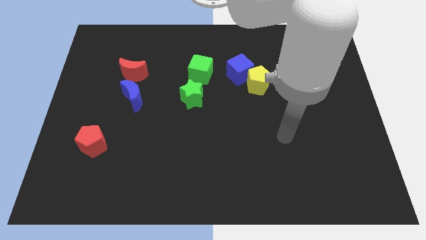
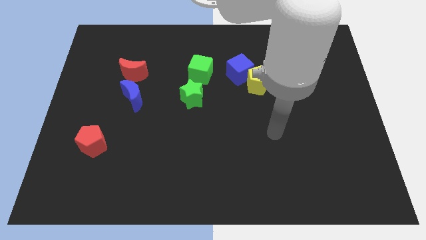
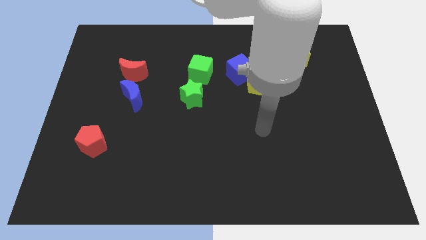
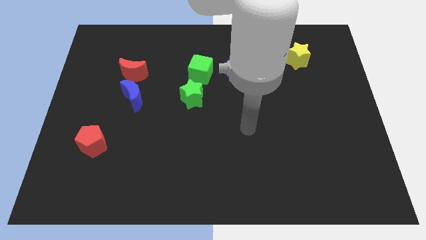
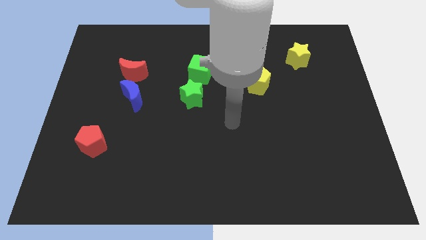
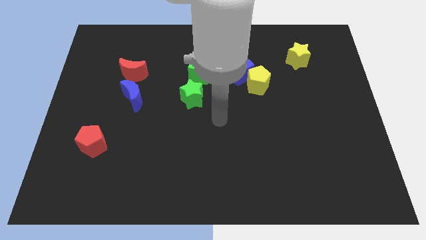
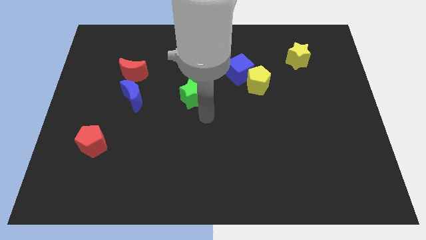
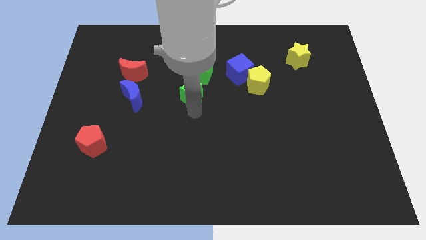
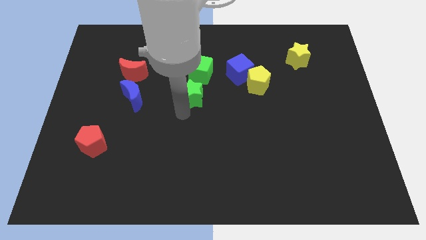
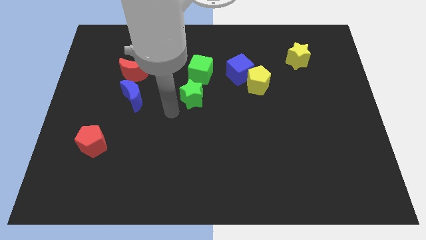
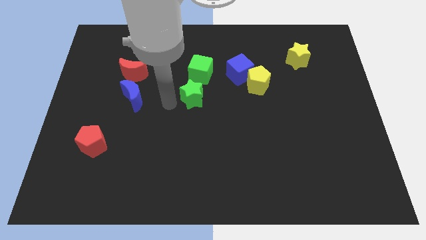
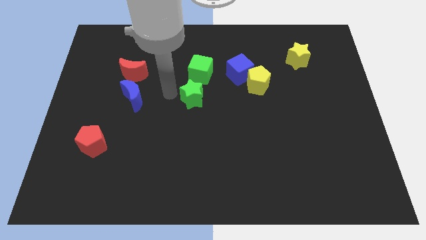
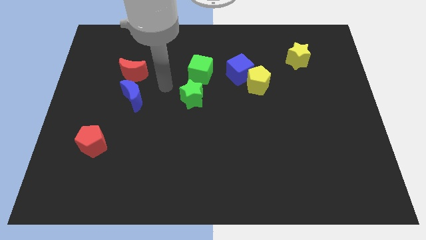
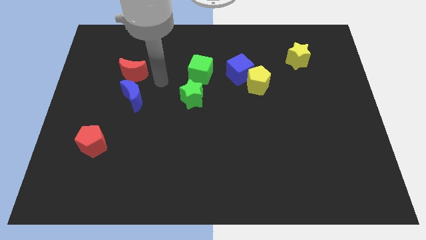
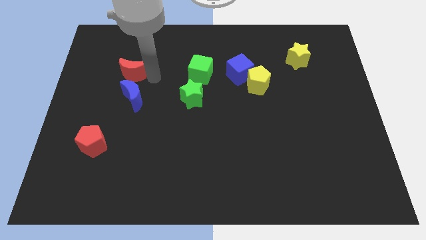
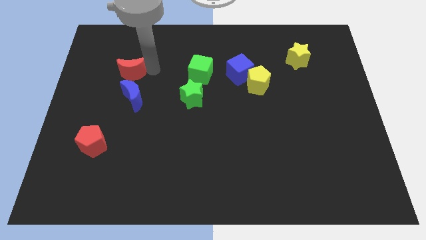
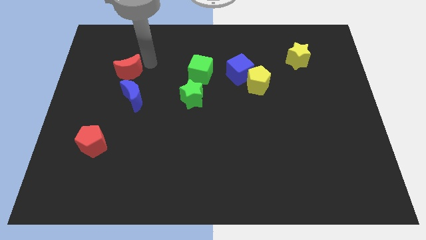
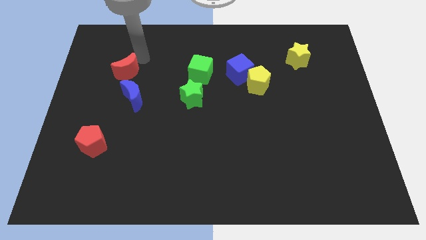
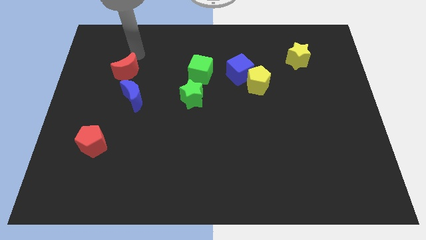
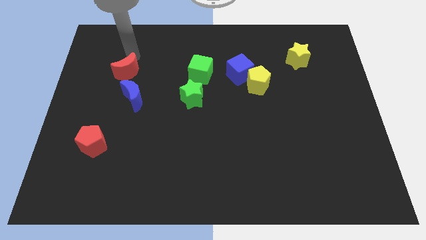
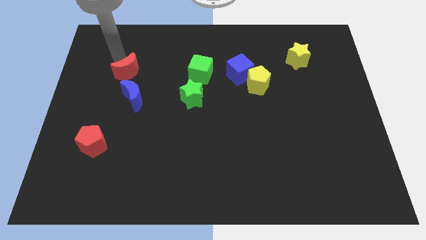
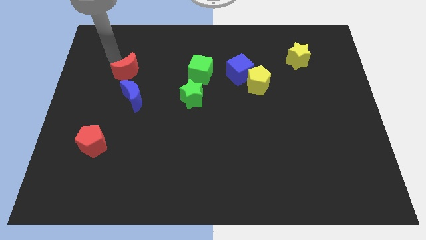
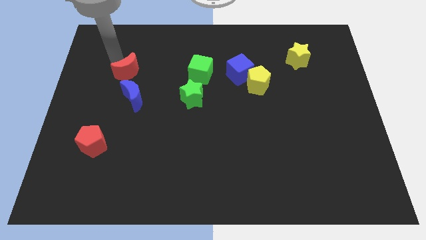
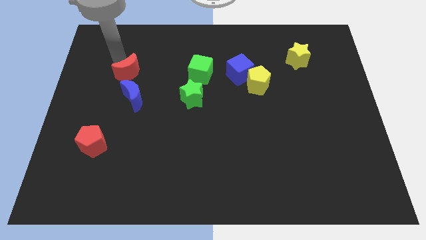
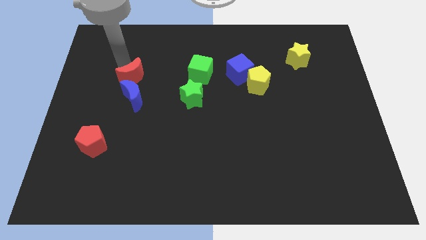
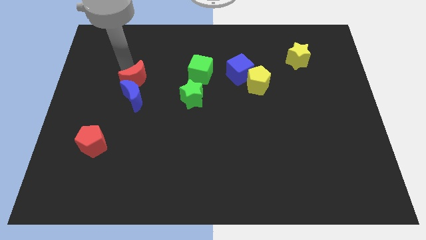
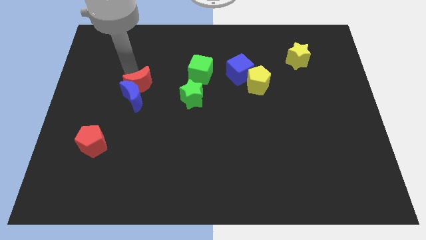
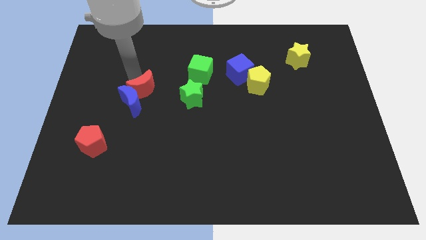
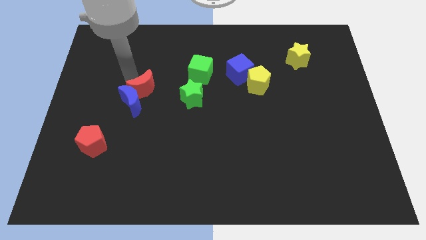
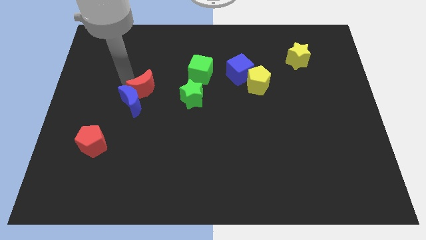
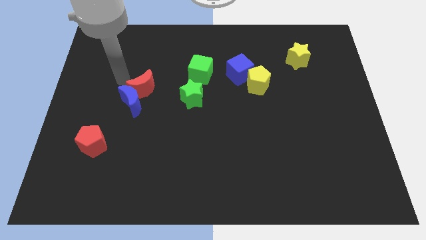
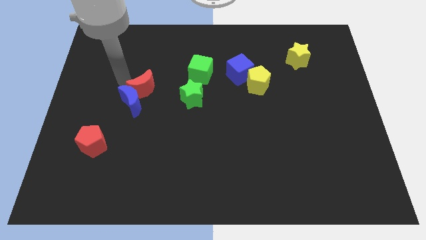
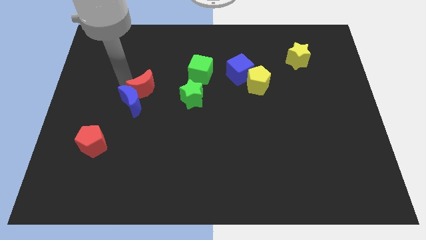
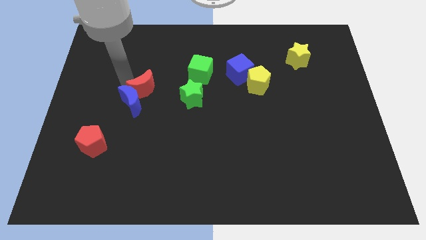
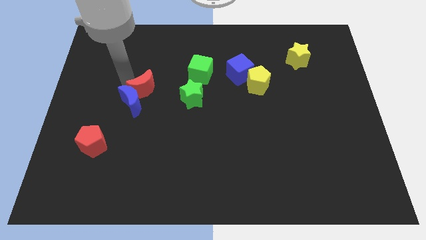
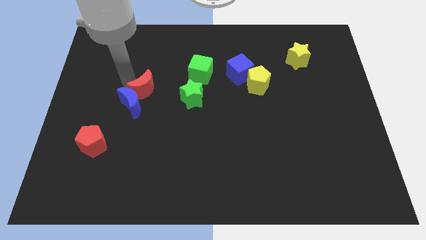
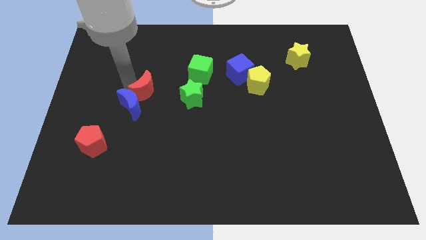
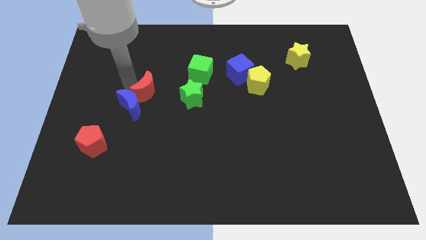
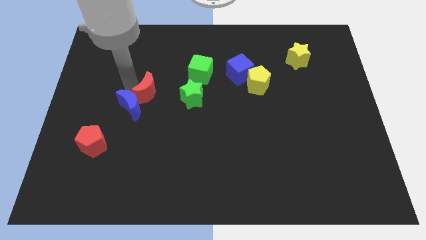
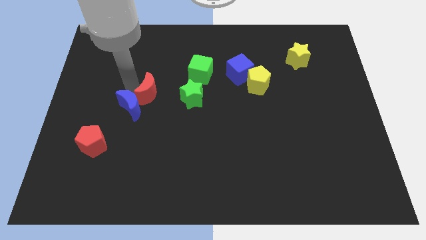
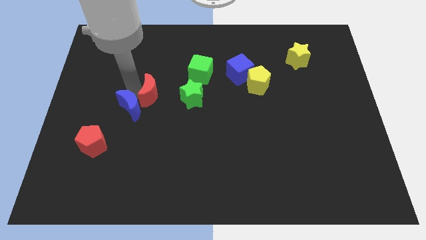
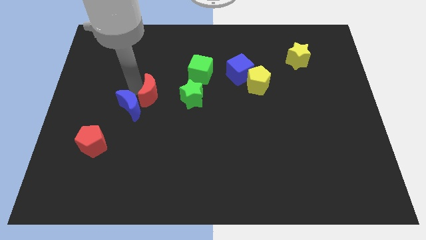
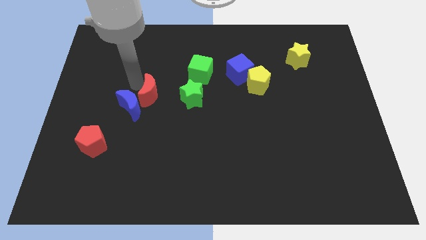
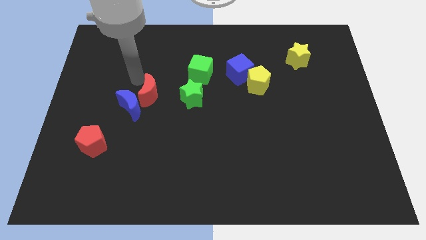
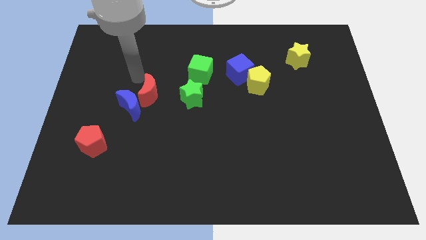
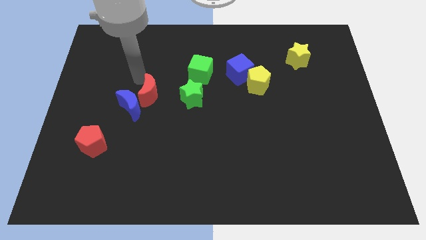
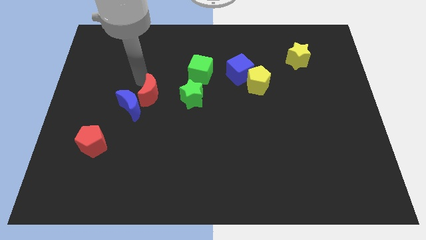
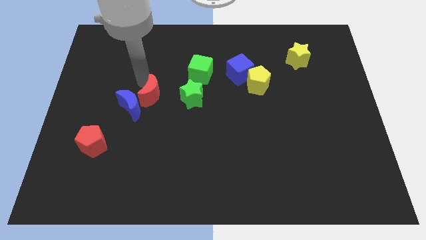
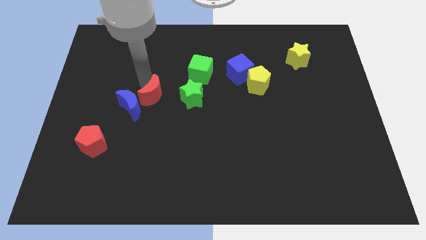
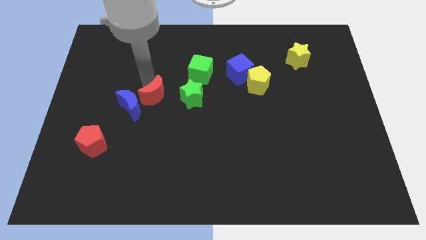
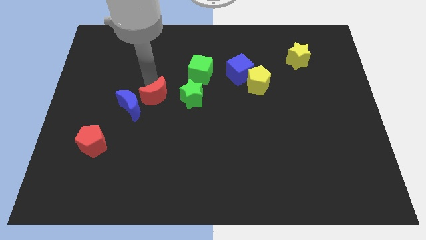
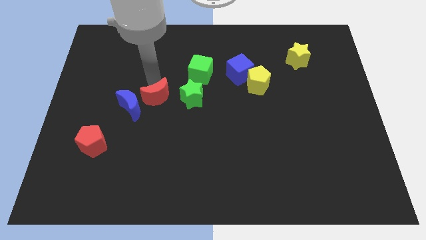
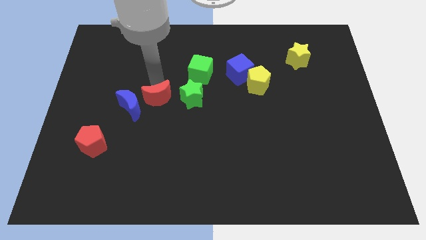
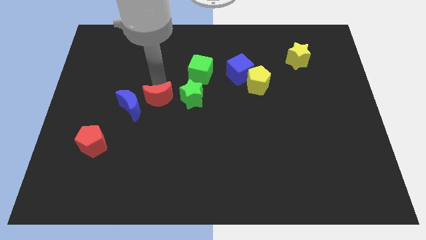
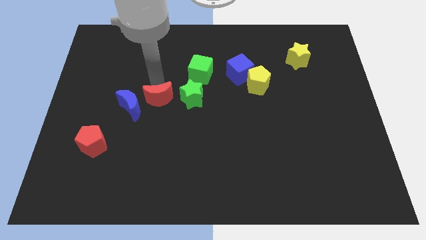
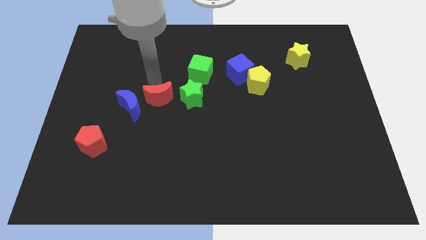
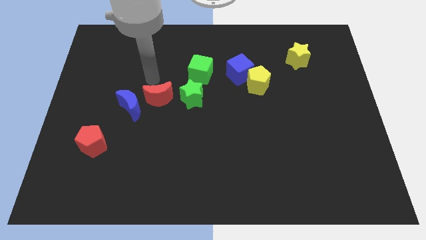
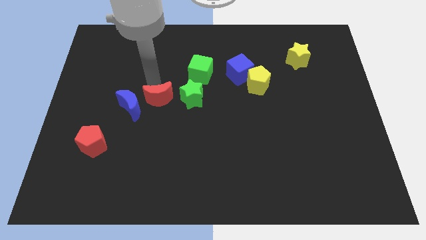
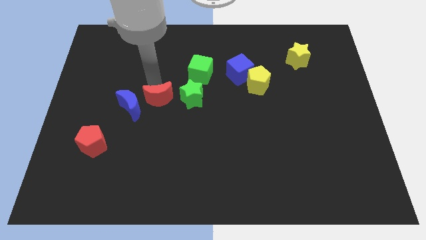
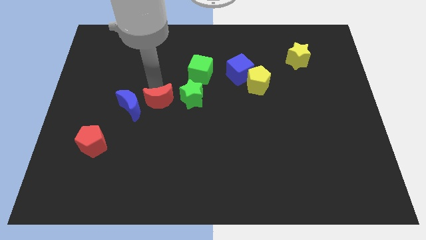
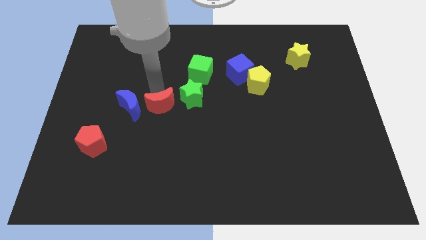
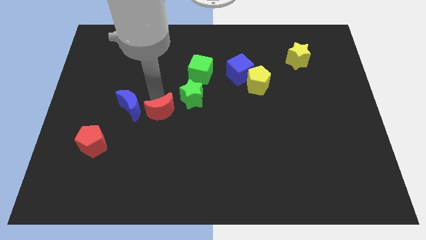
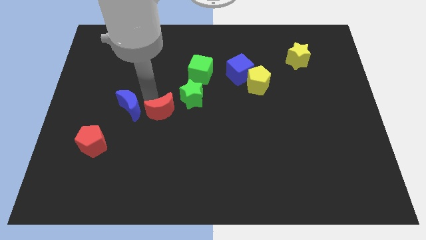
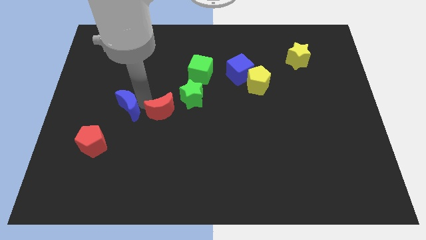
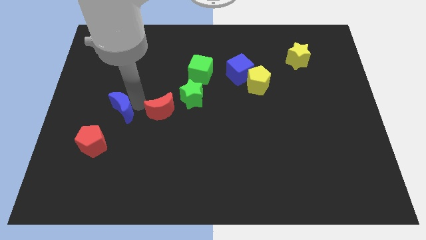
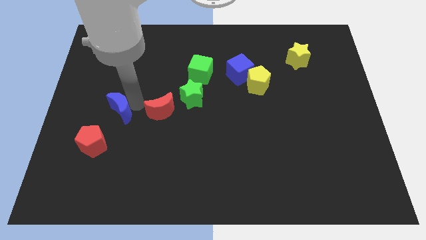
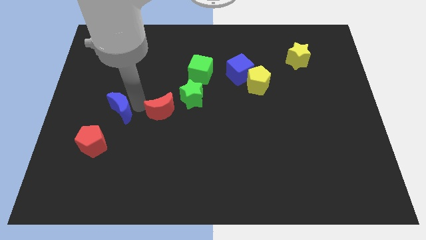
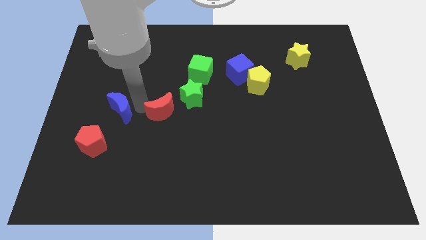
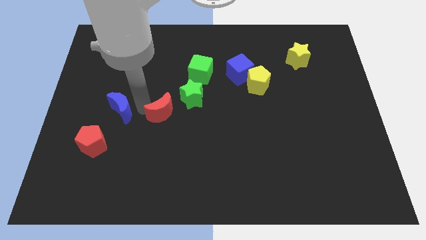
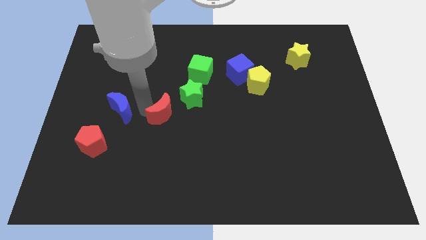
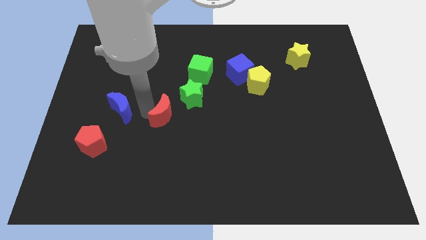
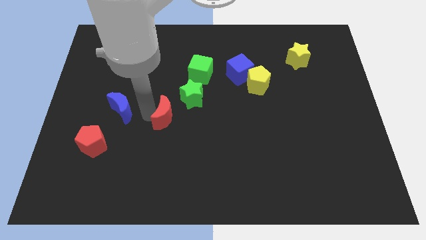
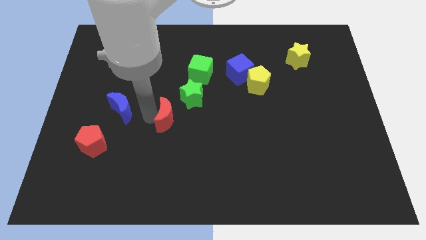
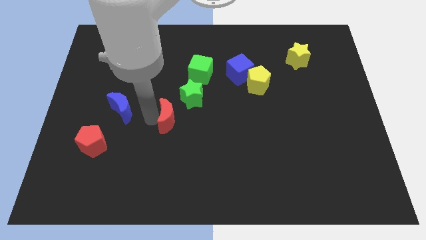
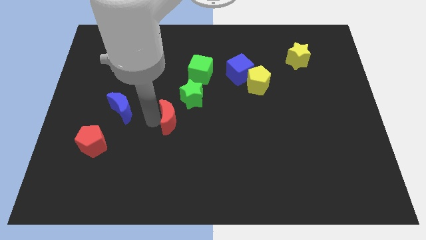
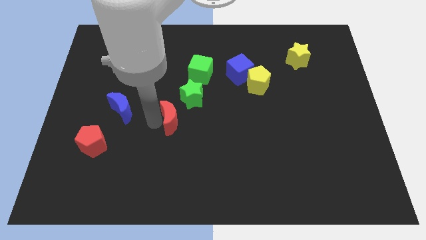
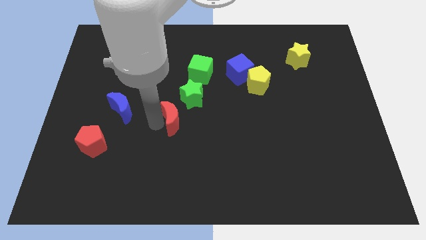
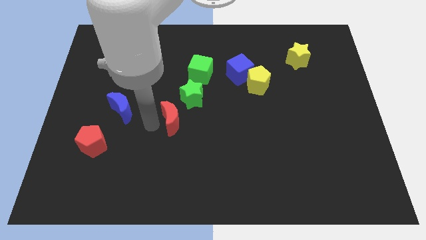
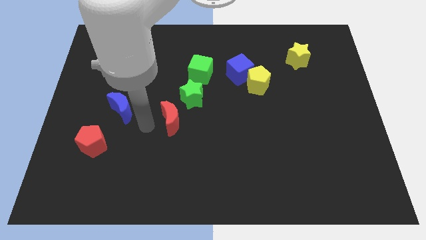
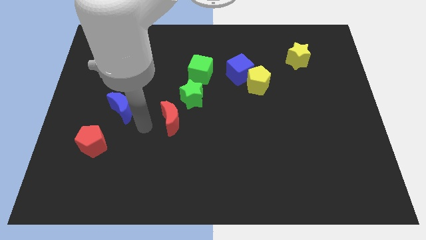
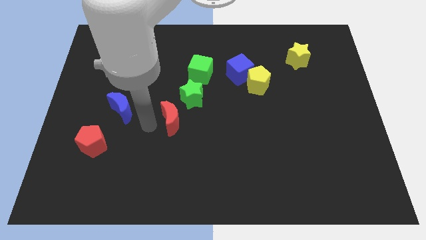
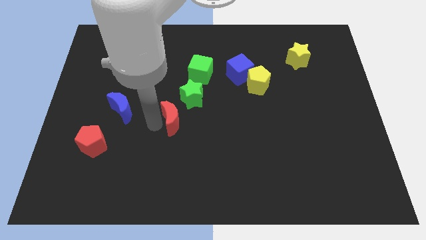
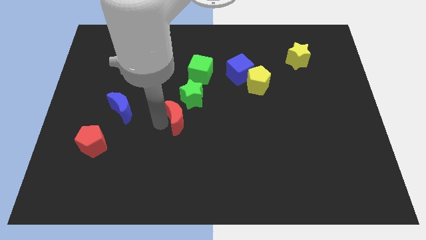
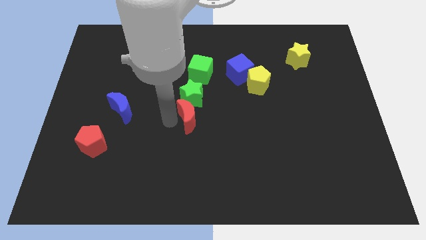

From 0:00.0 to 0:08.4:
put the red moon to the bottom right of the green star
